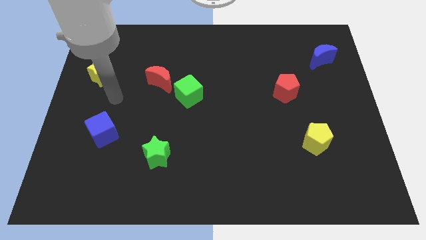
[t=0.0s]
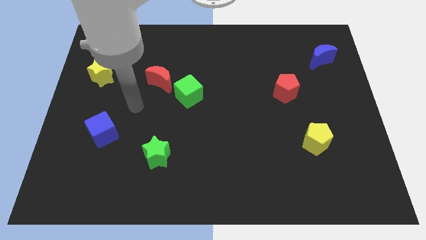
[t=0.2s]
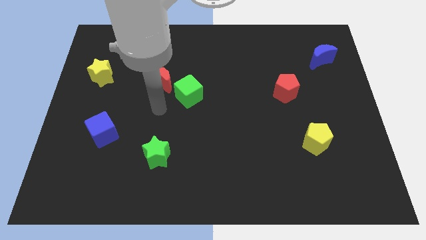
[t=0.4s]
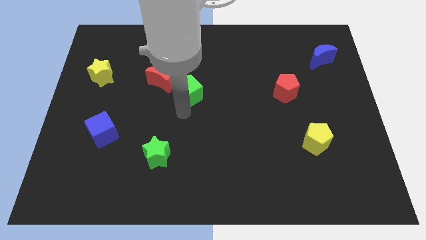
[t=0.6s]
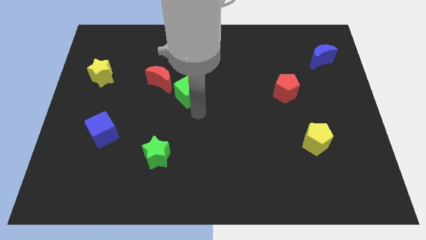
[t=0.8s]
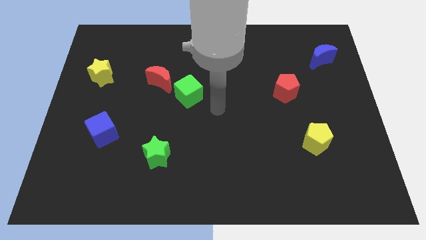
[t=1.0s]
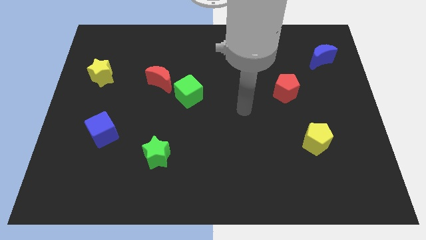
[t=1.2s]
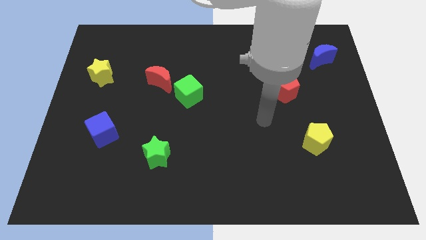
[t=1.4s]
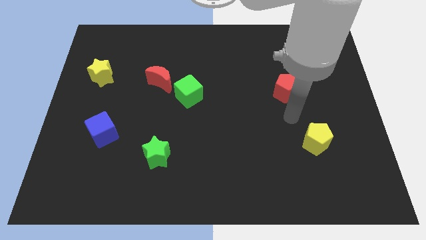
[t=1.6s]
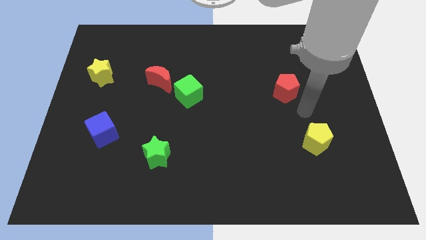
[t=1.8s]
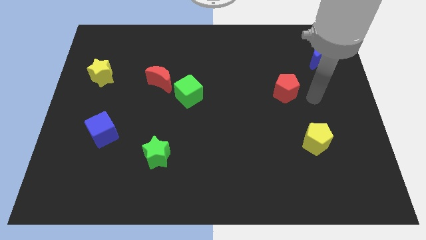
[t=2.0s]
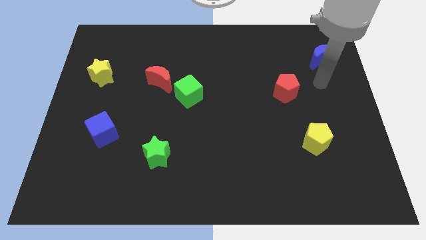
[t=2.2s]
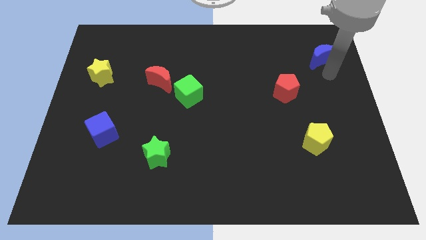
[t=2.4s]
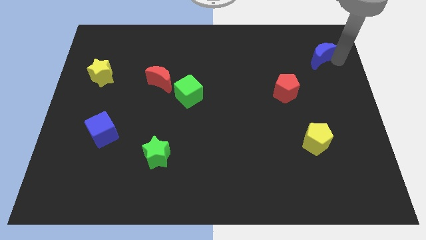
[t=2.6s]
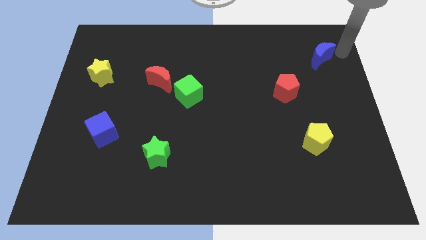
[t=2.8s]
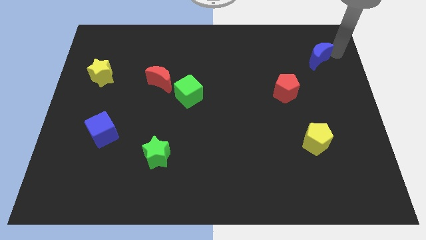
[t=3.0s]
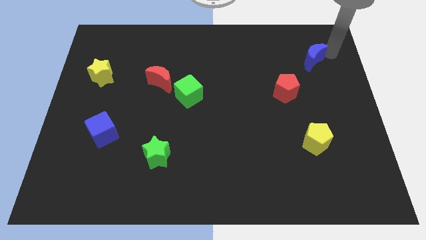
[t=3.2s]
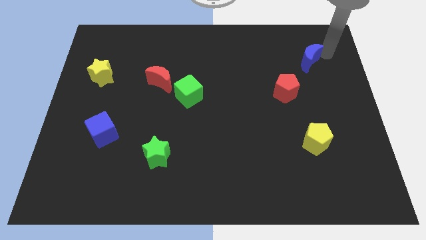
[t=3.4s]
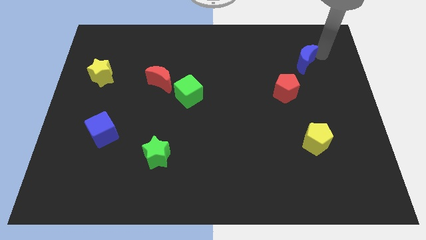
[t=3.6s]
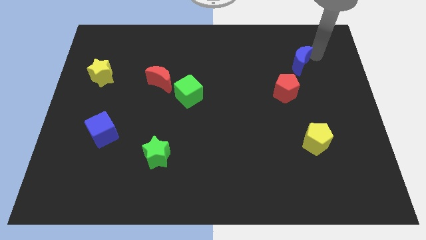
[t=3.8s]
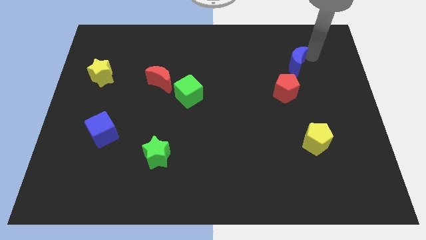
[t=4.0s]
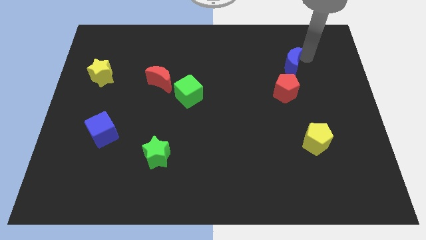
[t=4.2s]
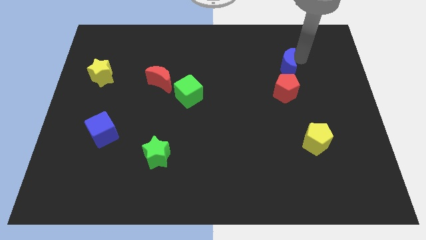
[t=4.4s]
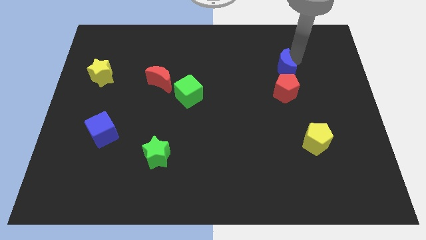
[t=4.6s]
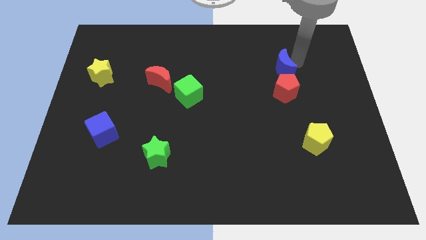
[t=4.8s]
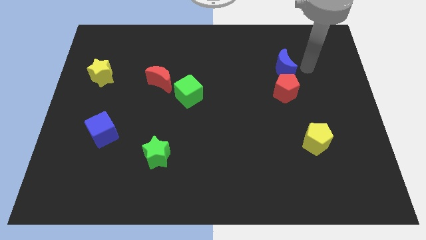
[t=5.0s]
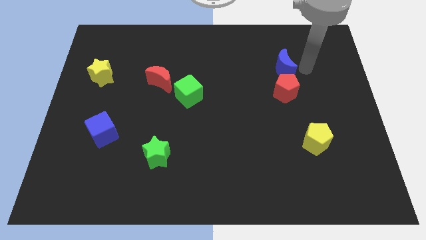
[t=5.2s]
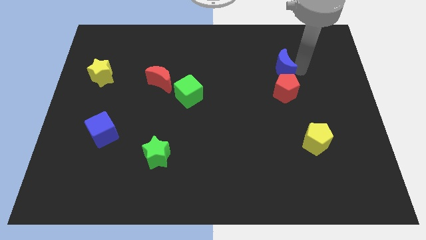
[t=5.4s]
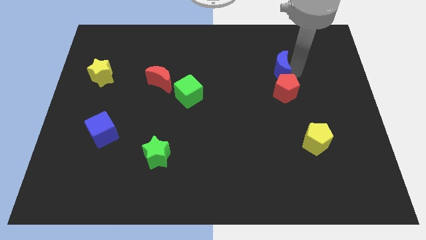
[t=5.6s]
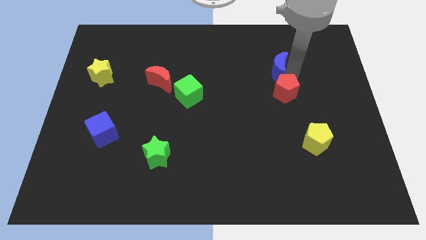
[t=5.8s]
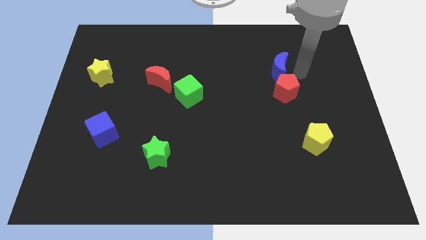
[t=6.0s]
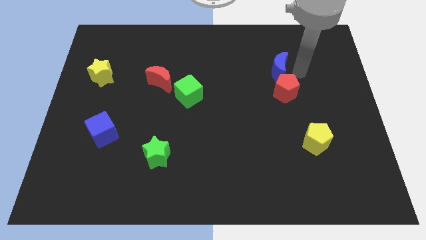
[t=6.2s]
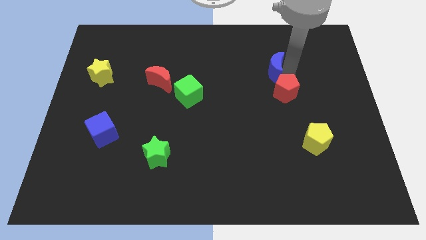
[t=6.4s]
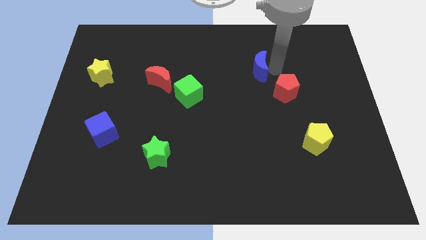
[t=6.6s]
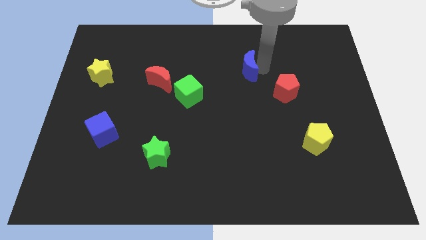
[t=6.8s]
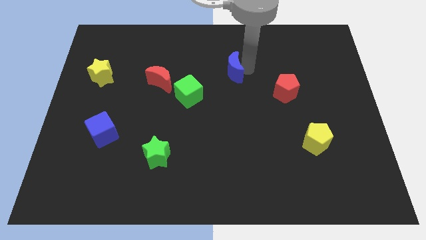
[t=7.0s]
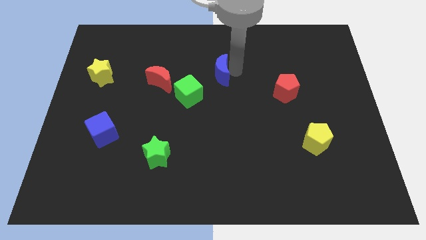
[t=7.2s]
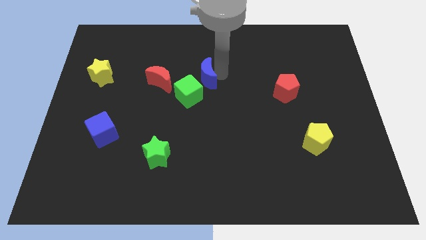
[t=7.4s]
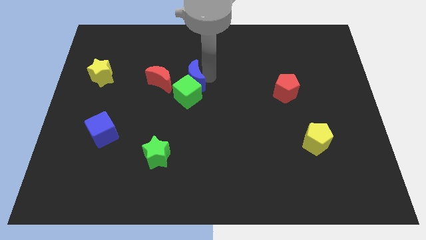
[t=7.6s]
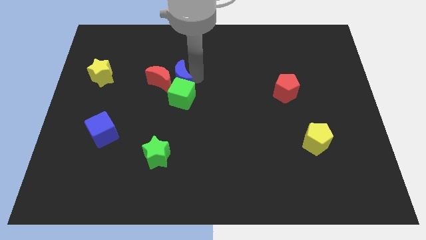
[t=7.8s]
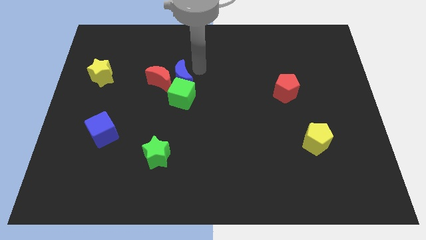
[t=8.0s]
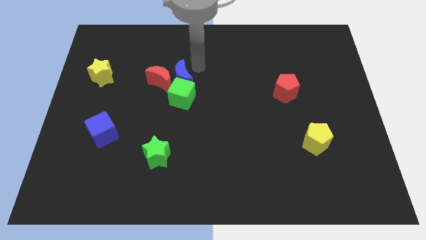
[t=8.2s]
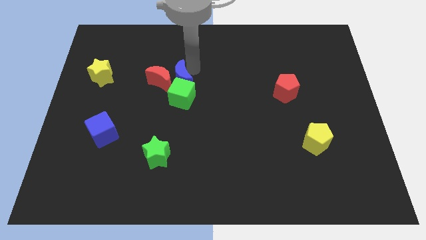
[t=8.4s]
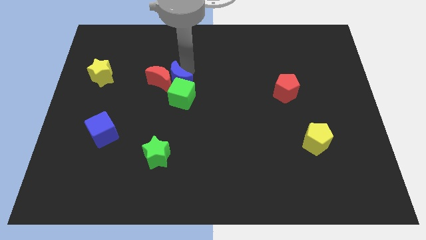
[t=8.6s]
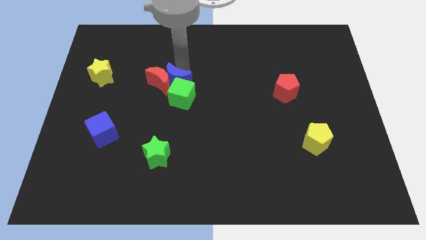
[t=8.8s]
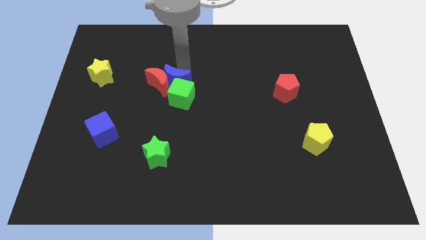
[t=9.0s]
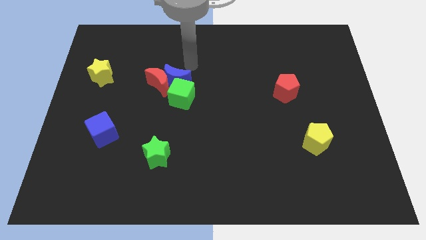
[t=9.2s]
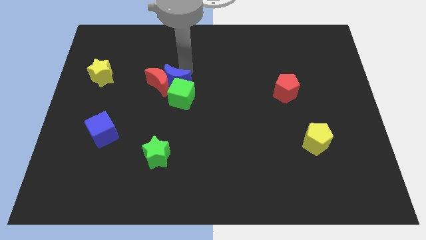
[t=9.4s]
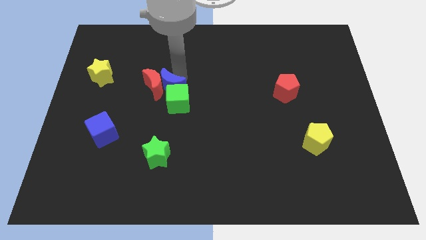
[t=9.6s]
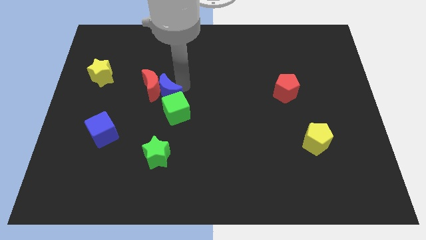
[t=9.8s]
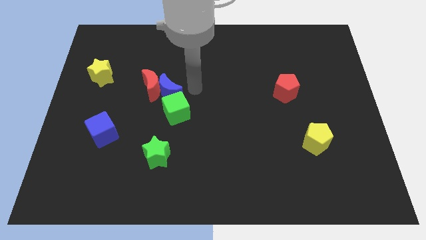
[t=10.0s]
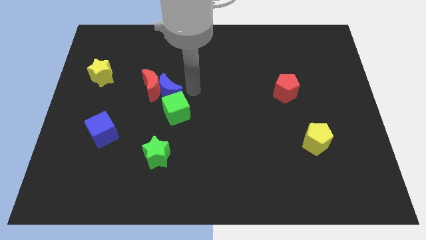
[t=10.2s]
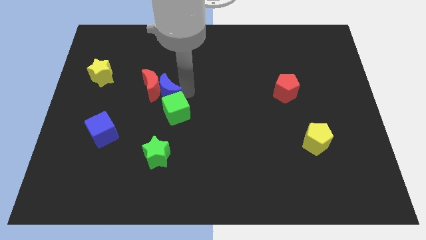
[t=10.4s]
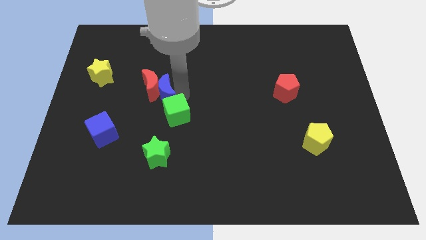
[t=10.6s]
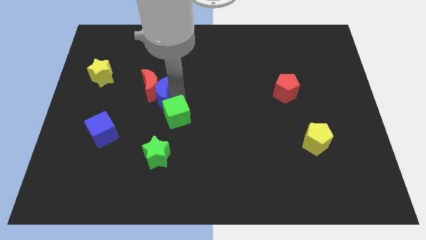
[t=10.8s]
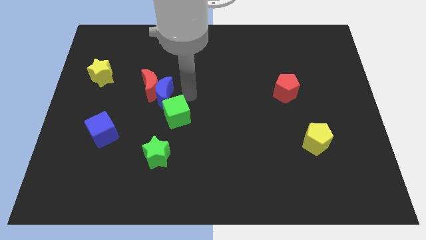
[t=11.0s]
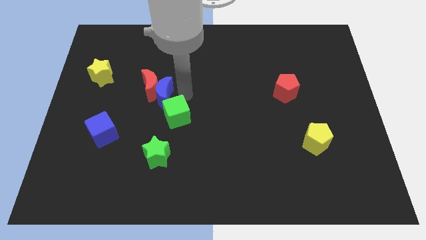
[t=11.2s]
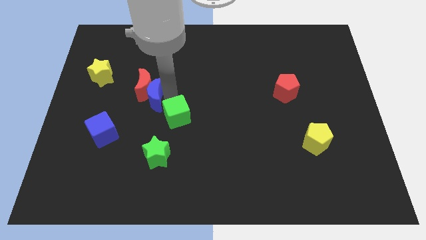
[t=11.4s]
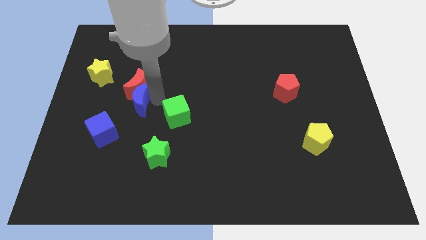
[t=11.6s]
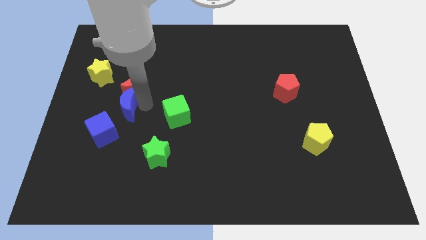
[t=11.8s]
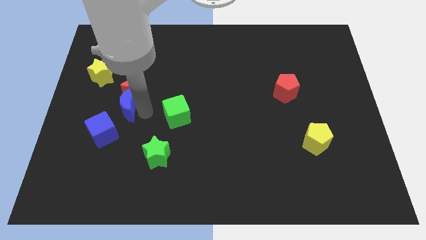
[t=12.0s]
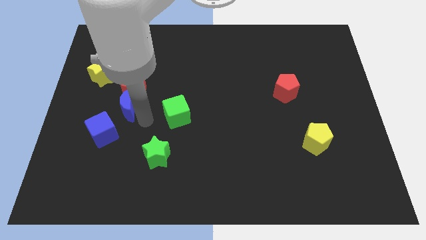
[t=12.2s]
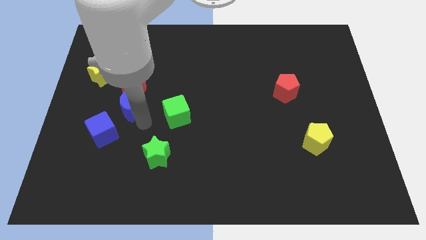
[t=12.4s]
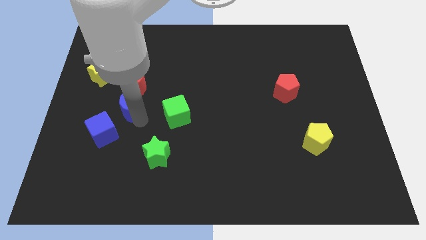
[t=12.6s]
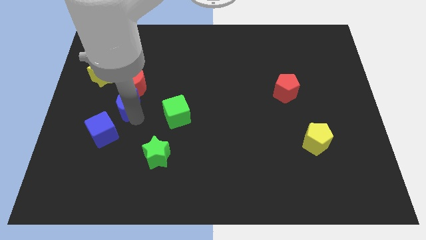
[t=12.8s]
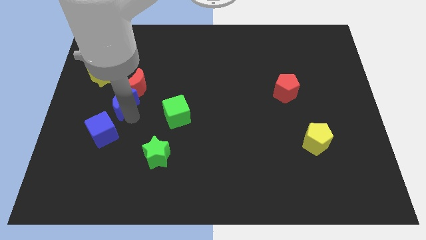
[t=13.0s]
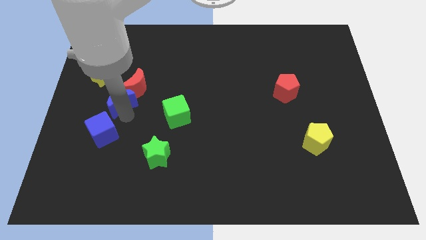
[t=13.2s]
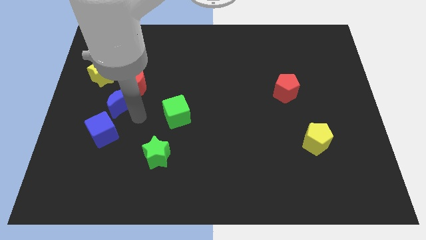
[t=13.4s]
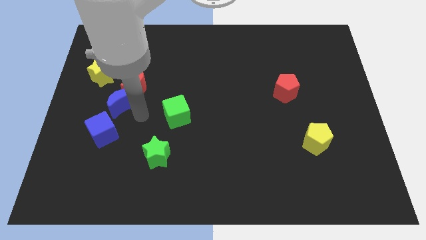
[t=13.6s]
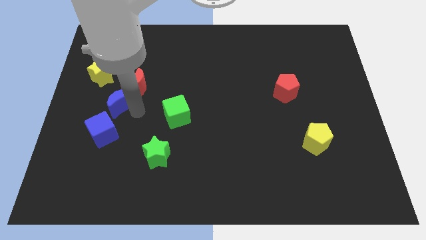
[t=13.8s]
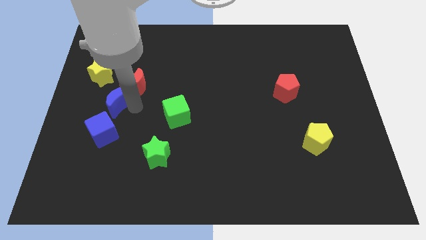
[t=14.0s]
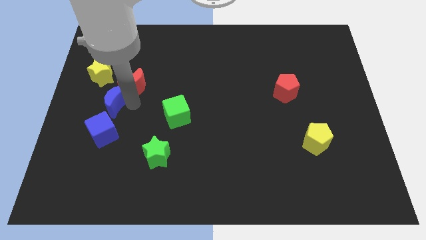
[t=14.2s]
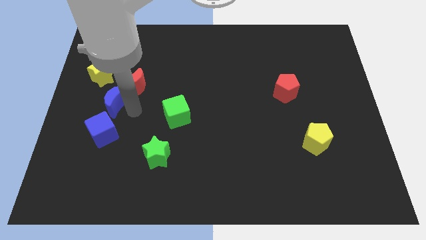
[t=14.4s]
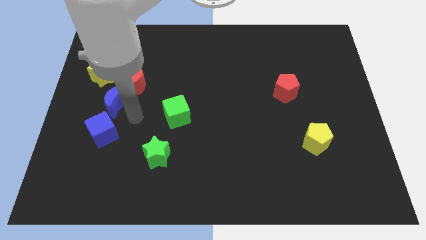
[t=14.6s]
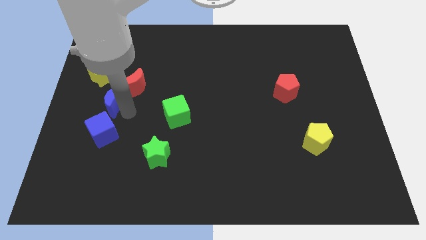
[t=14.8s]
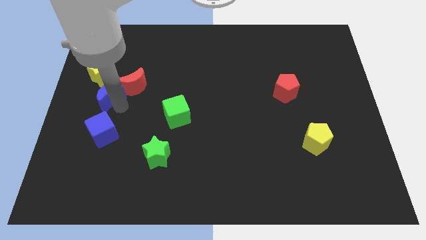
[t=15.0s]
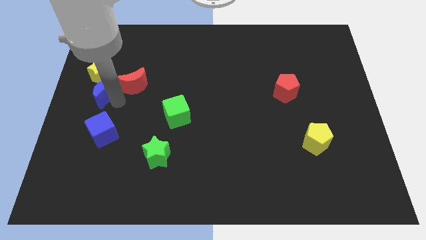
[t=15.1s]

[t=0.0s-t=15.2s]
slide the blue moon to the left side of the board
